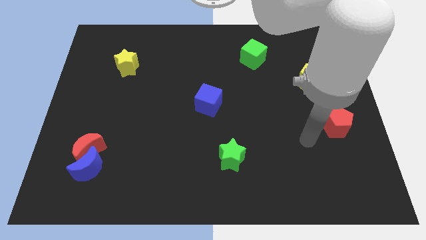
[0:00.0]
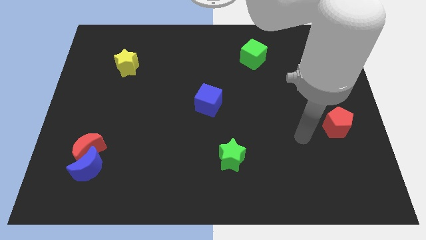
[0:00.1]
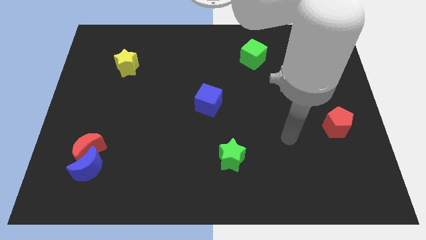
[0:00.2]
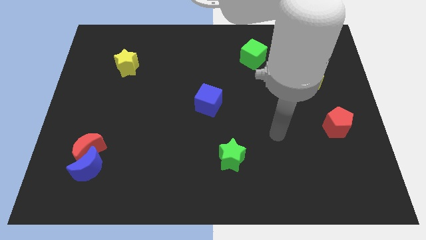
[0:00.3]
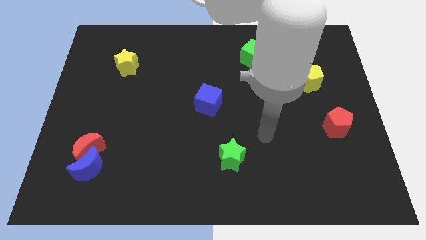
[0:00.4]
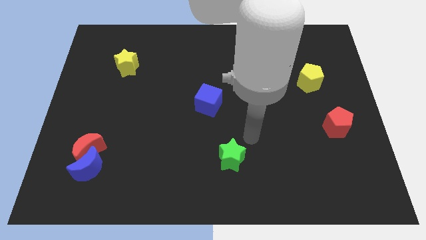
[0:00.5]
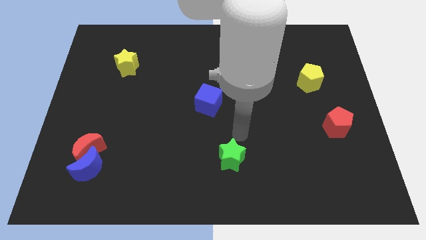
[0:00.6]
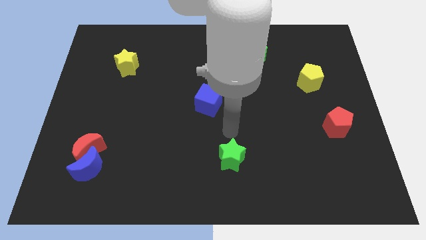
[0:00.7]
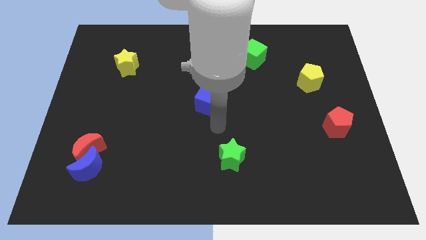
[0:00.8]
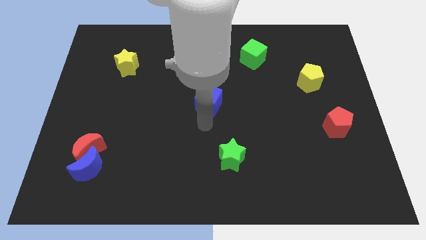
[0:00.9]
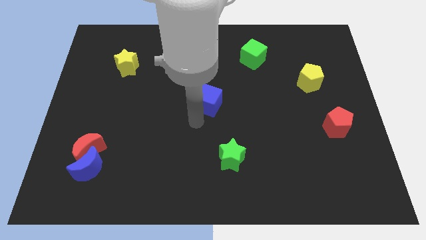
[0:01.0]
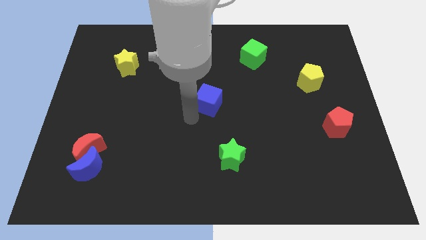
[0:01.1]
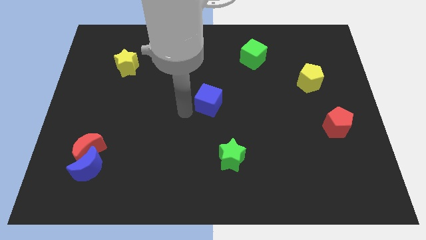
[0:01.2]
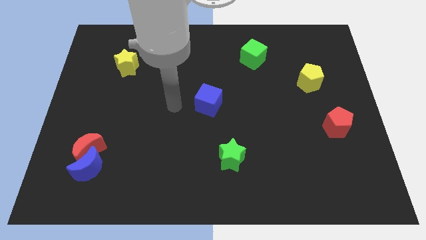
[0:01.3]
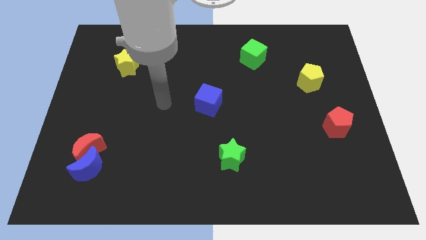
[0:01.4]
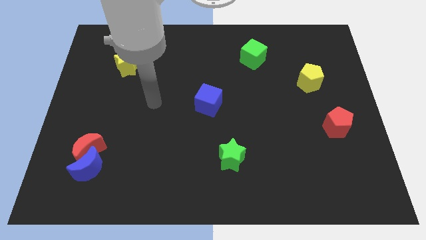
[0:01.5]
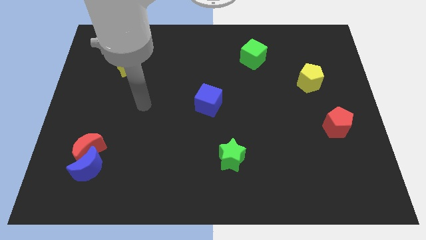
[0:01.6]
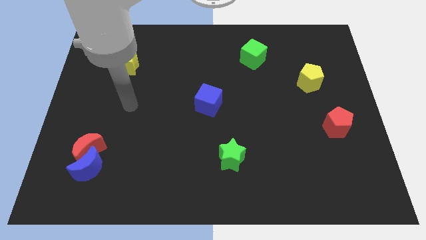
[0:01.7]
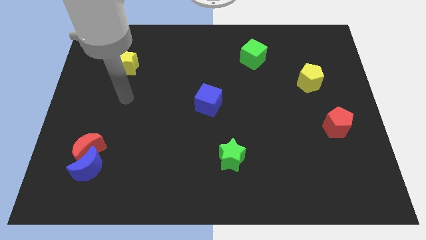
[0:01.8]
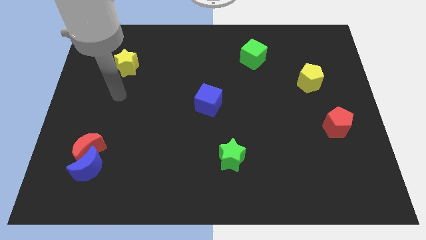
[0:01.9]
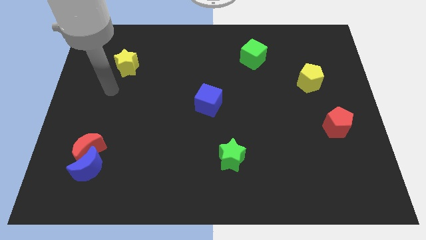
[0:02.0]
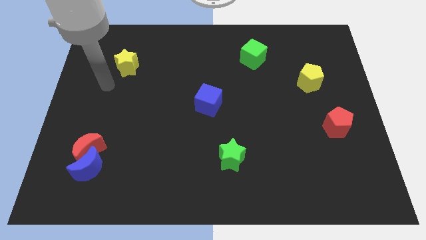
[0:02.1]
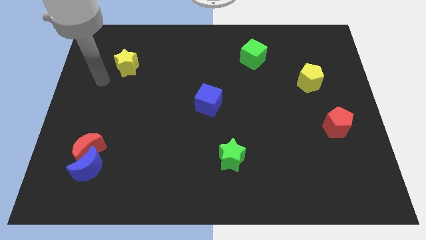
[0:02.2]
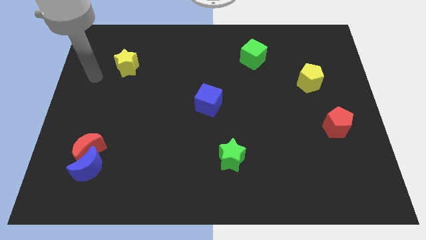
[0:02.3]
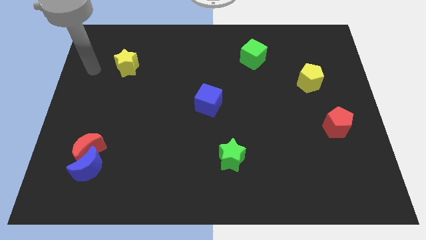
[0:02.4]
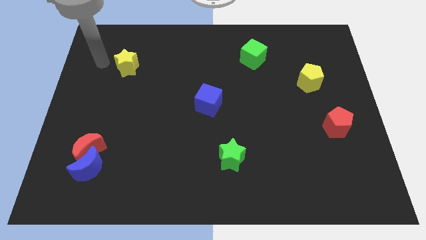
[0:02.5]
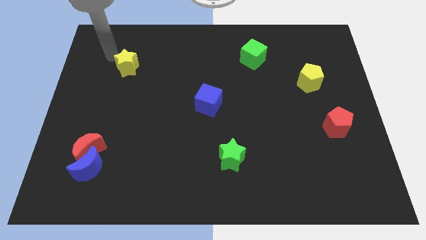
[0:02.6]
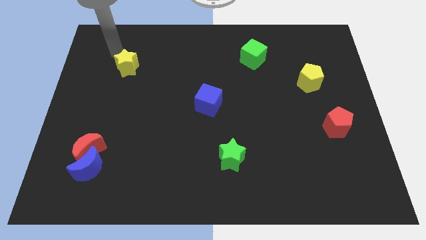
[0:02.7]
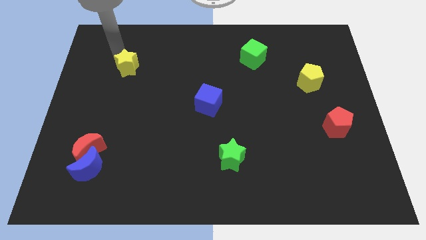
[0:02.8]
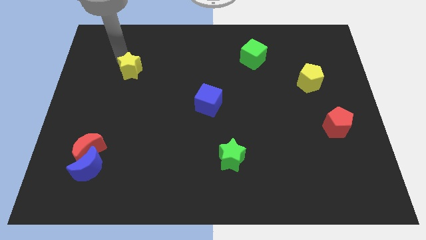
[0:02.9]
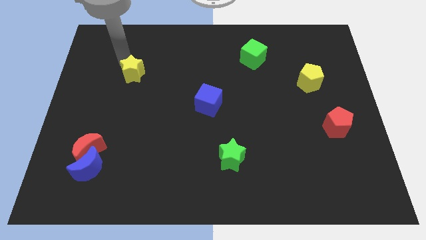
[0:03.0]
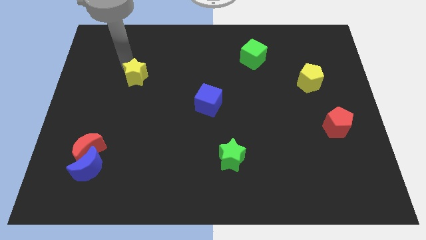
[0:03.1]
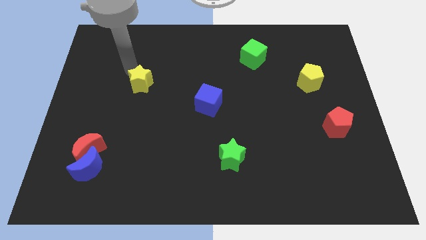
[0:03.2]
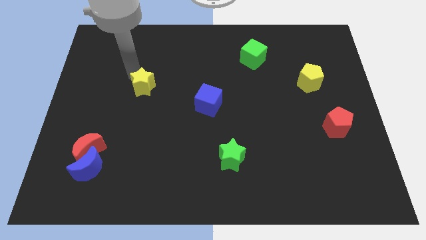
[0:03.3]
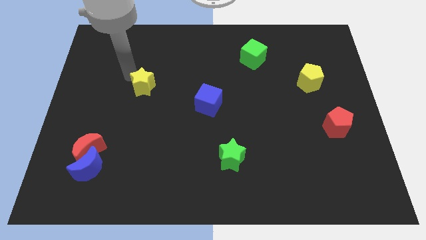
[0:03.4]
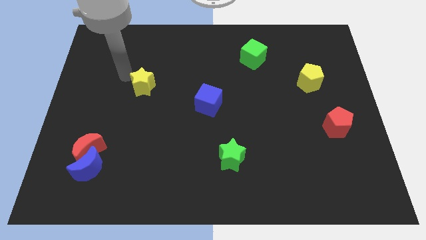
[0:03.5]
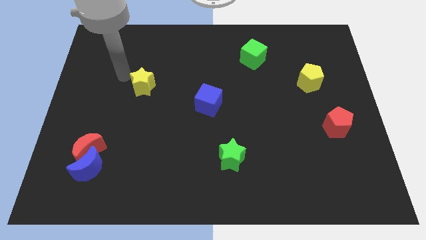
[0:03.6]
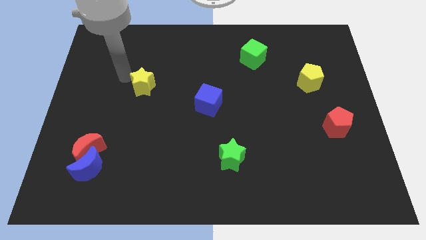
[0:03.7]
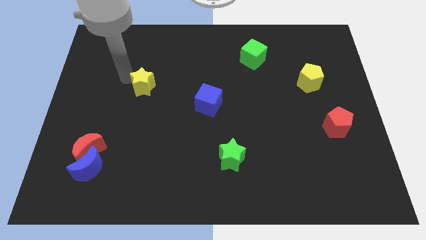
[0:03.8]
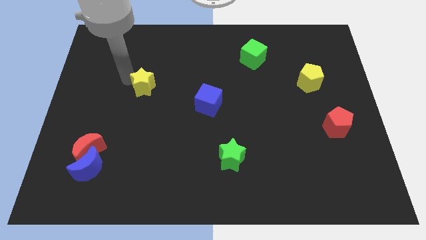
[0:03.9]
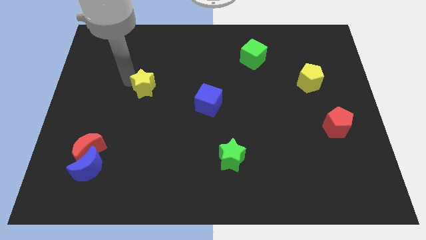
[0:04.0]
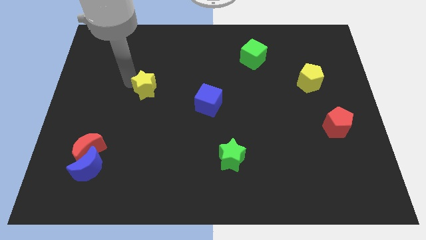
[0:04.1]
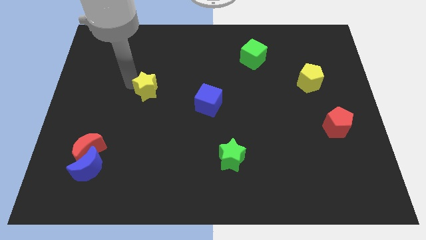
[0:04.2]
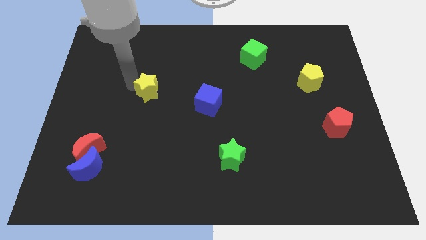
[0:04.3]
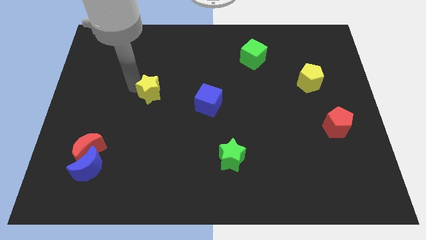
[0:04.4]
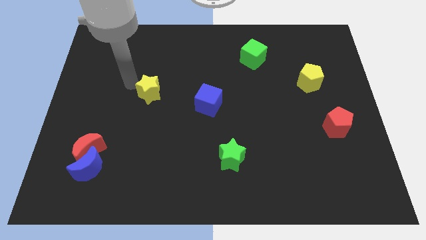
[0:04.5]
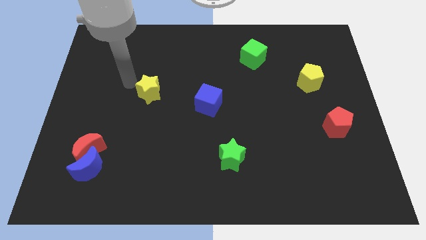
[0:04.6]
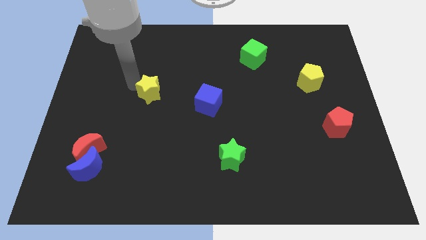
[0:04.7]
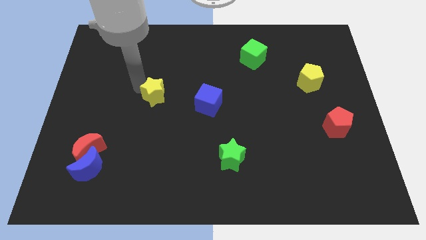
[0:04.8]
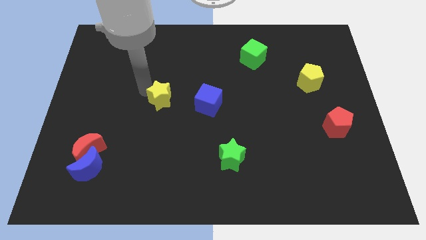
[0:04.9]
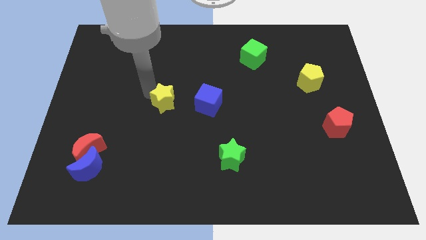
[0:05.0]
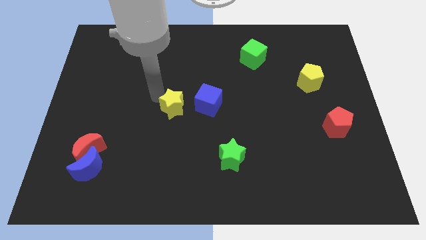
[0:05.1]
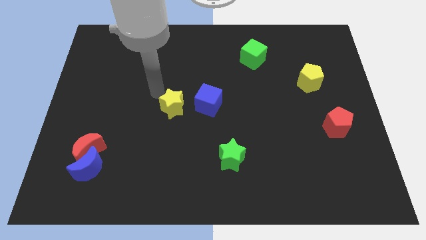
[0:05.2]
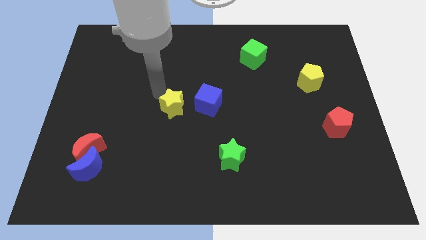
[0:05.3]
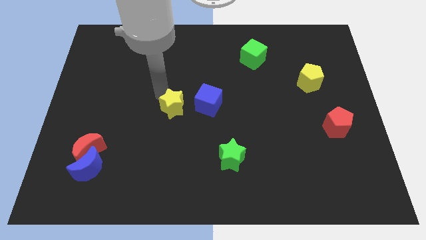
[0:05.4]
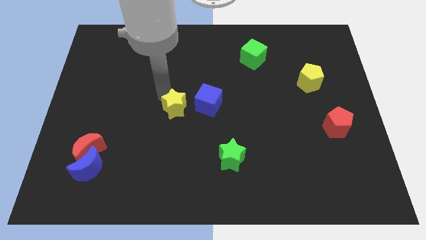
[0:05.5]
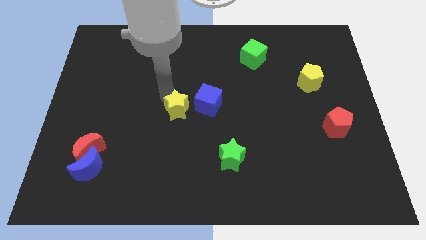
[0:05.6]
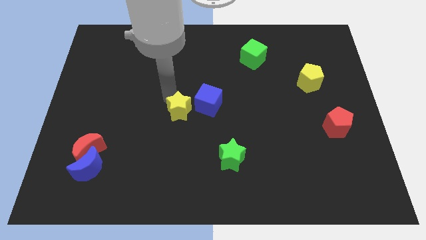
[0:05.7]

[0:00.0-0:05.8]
move the yellow star down and to the right

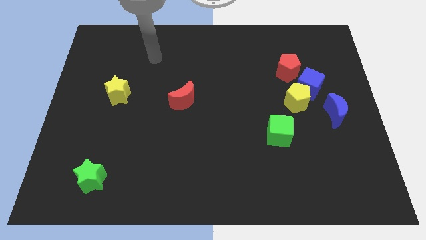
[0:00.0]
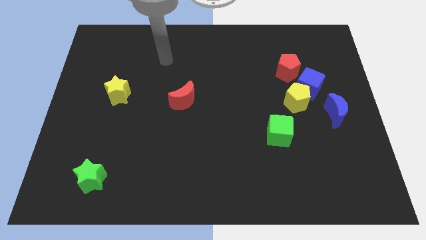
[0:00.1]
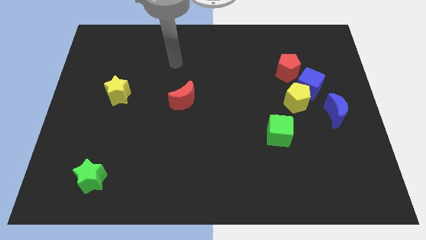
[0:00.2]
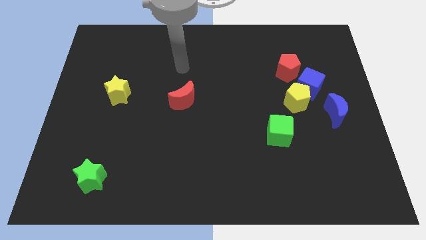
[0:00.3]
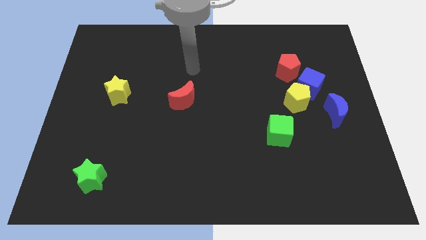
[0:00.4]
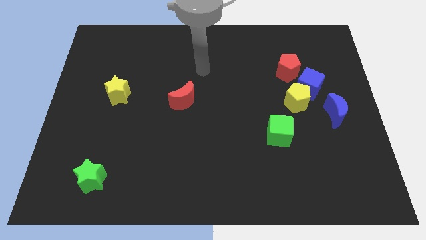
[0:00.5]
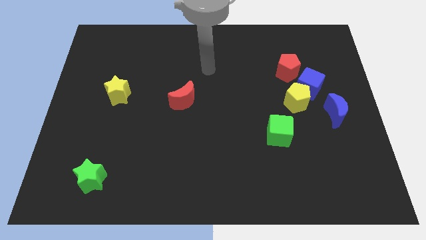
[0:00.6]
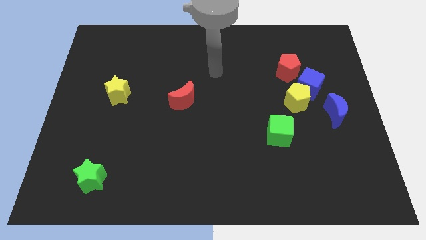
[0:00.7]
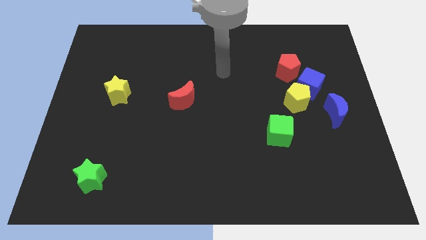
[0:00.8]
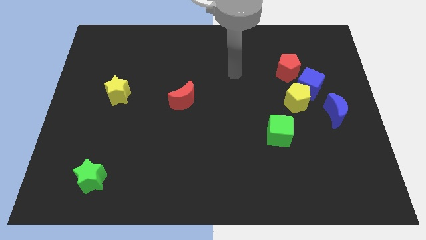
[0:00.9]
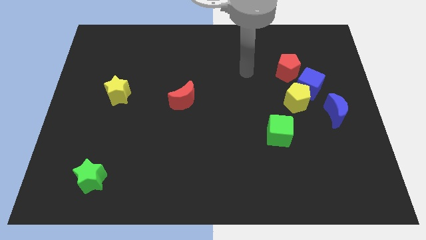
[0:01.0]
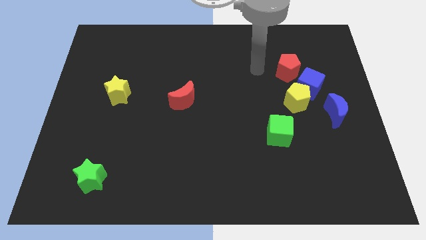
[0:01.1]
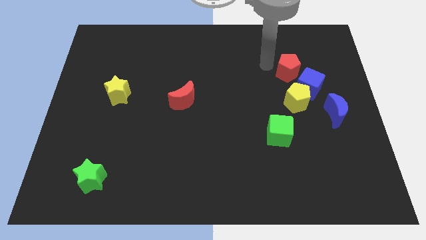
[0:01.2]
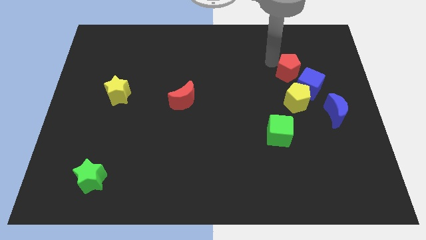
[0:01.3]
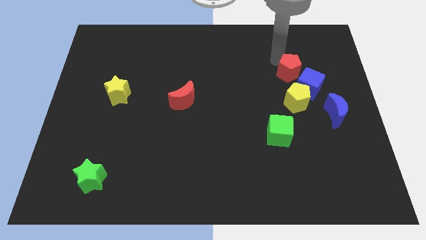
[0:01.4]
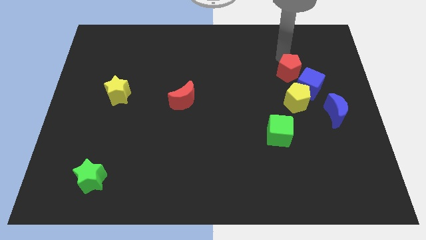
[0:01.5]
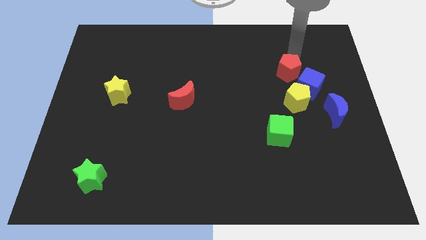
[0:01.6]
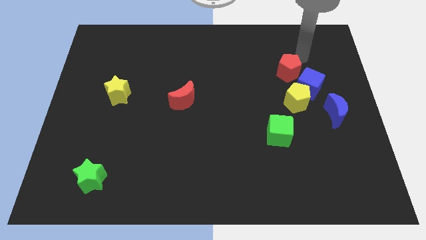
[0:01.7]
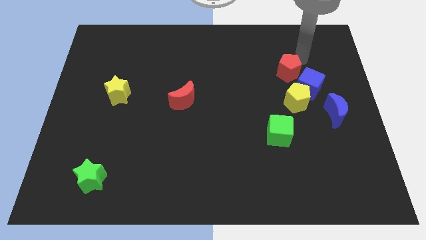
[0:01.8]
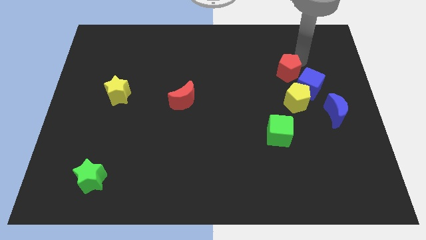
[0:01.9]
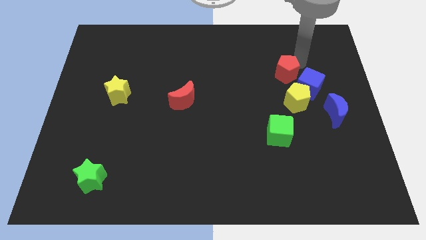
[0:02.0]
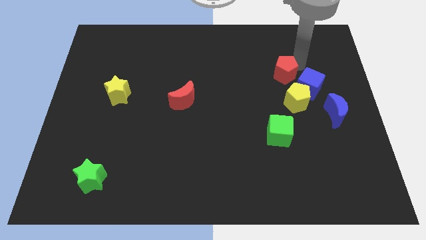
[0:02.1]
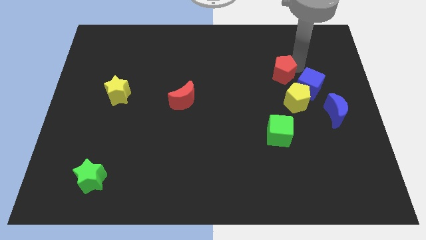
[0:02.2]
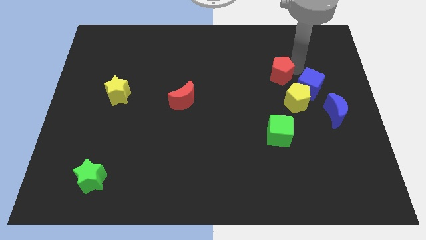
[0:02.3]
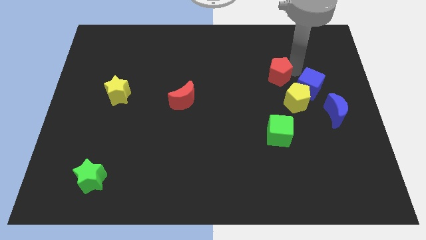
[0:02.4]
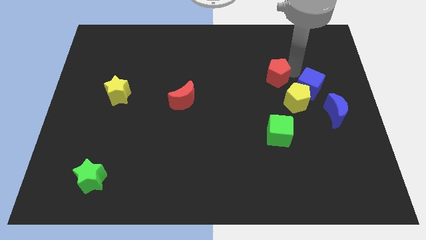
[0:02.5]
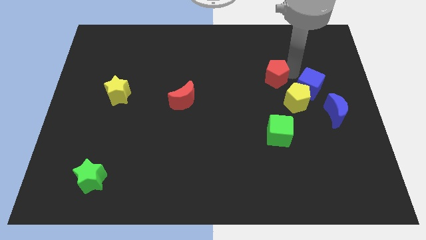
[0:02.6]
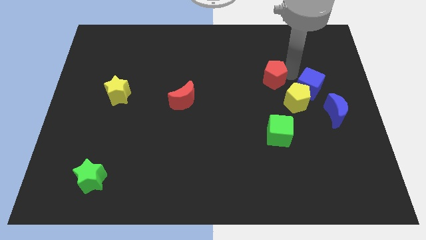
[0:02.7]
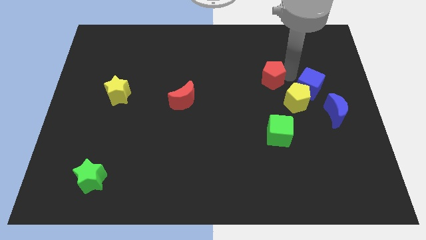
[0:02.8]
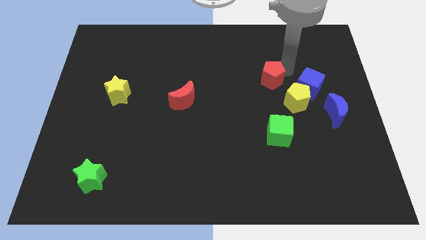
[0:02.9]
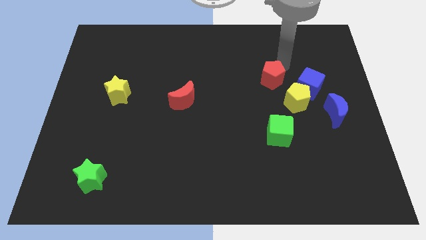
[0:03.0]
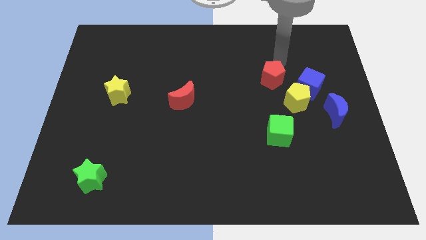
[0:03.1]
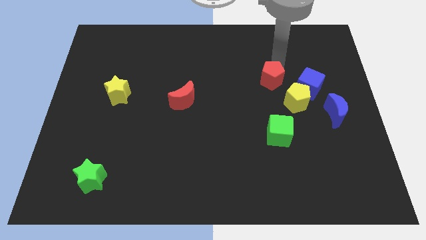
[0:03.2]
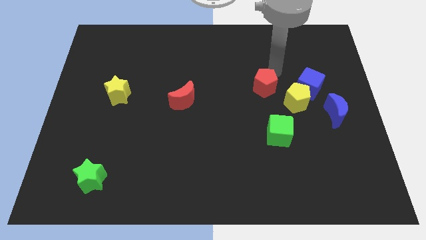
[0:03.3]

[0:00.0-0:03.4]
push the red pentagon down and to the left diagonally somewhat
